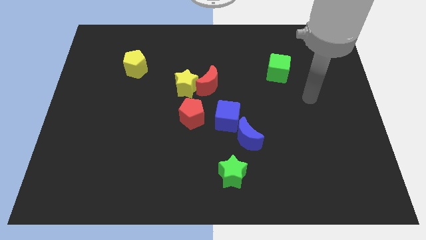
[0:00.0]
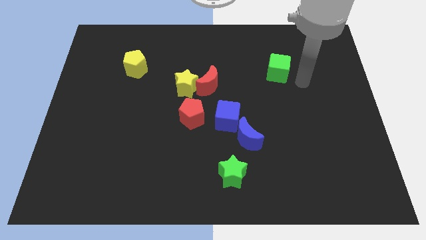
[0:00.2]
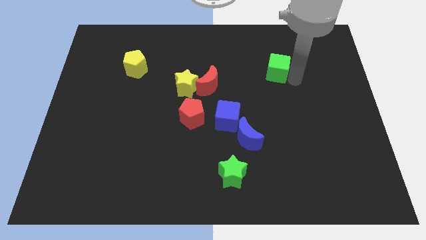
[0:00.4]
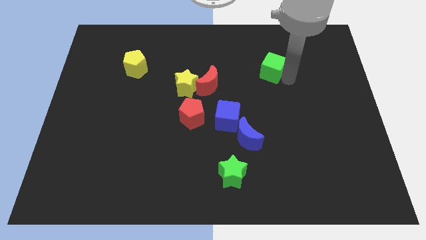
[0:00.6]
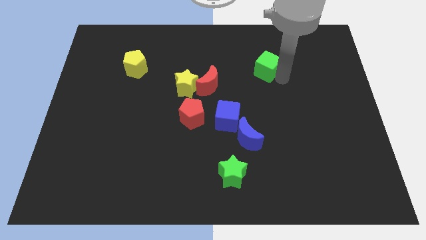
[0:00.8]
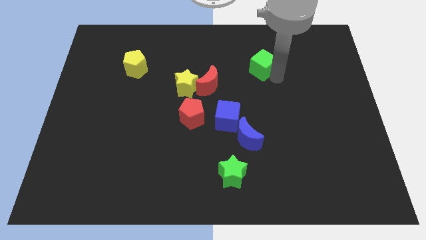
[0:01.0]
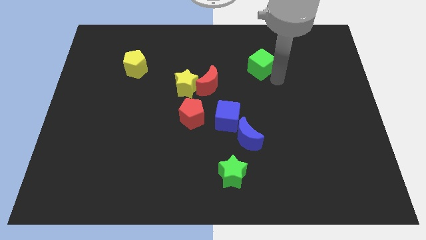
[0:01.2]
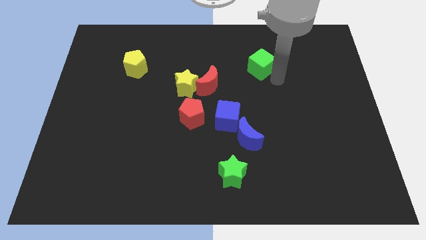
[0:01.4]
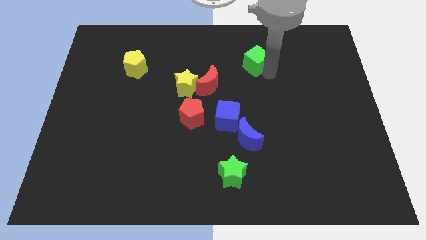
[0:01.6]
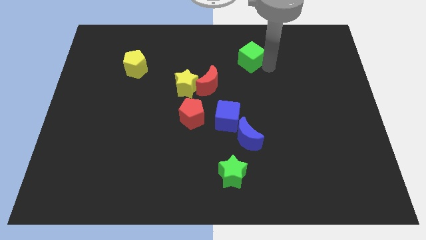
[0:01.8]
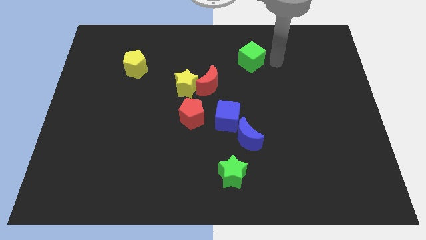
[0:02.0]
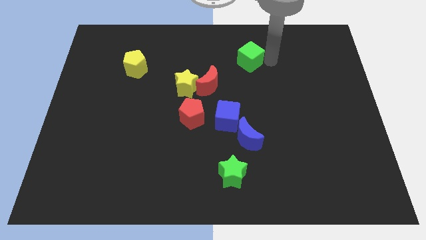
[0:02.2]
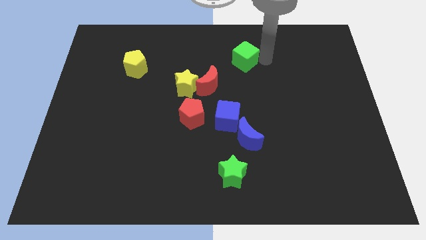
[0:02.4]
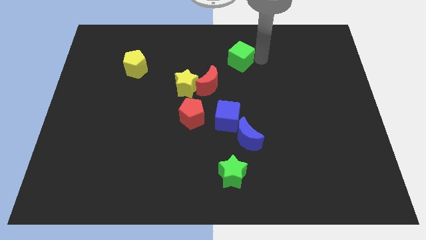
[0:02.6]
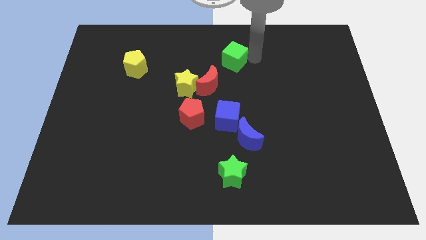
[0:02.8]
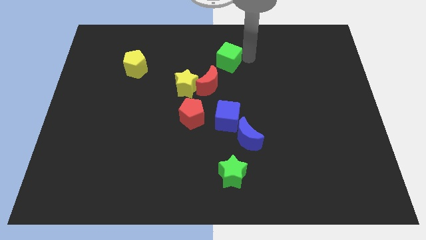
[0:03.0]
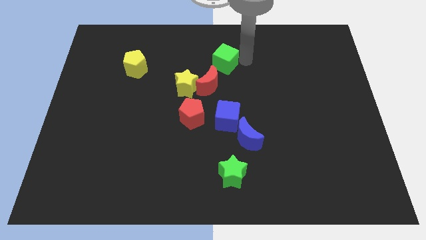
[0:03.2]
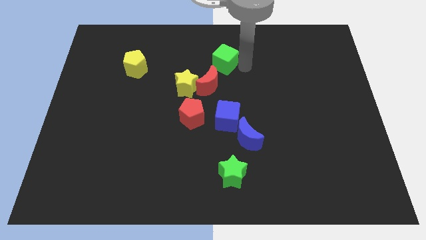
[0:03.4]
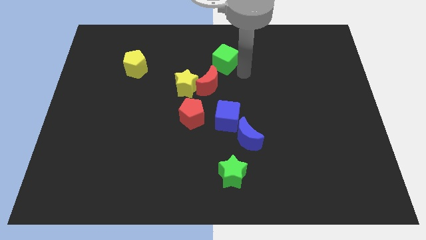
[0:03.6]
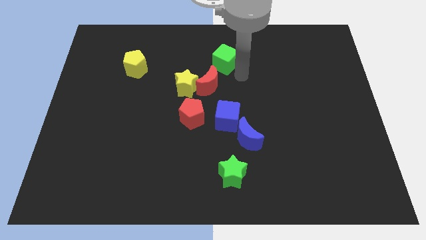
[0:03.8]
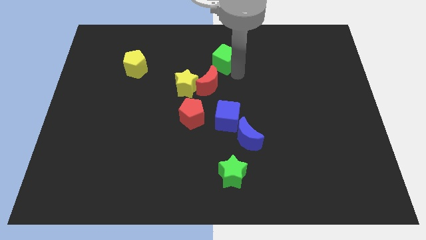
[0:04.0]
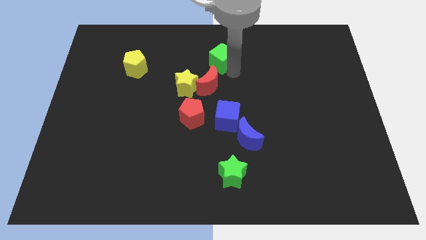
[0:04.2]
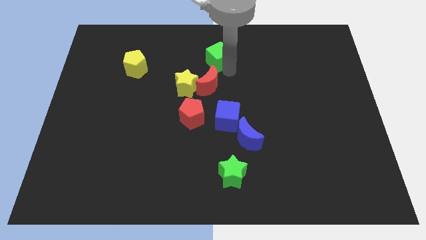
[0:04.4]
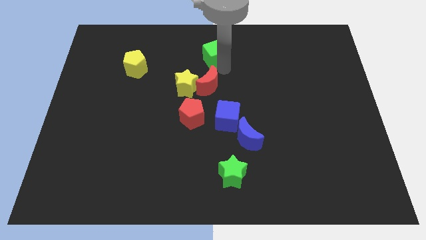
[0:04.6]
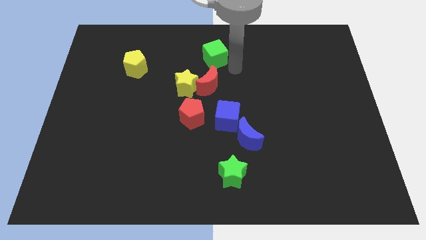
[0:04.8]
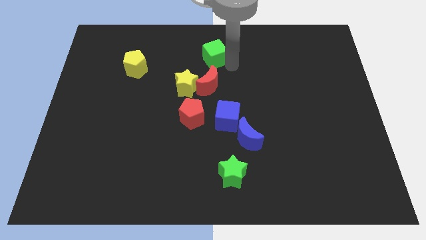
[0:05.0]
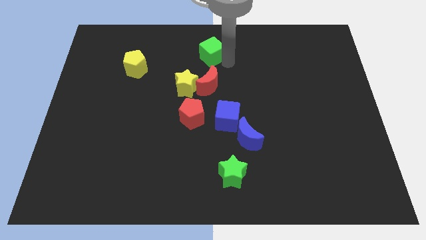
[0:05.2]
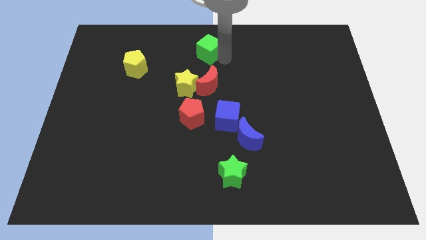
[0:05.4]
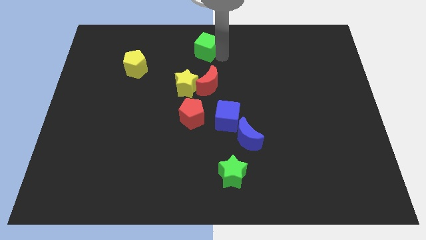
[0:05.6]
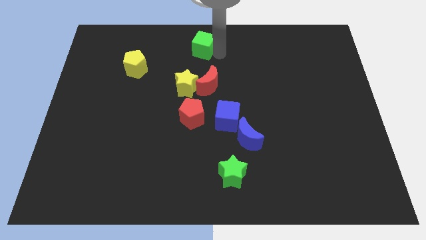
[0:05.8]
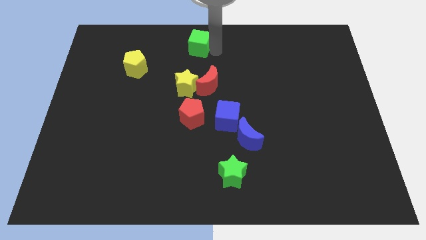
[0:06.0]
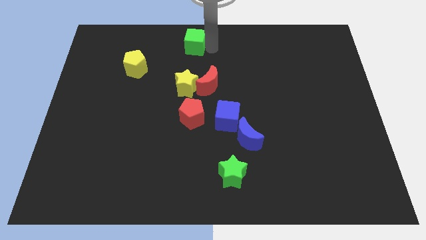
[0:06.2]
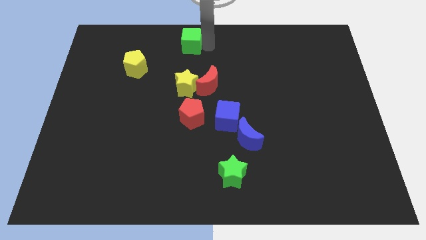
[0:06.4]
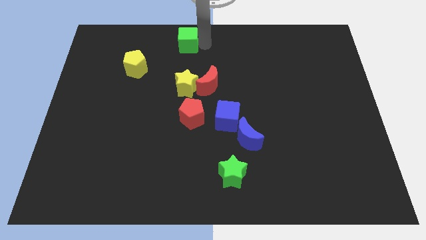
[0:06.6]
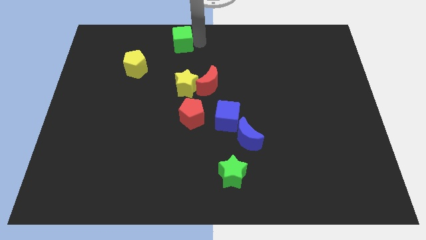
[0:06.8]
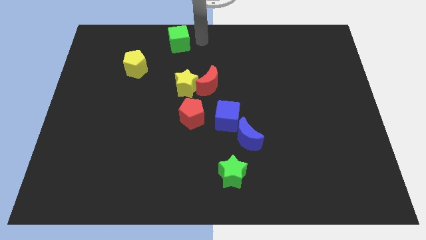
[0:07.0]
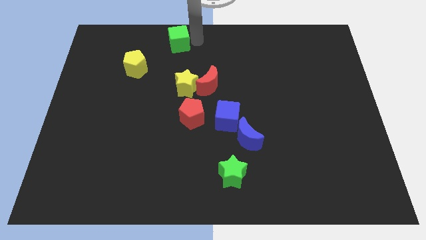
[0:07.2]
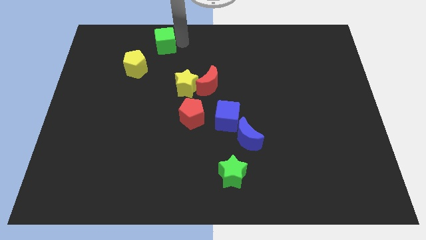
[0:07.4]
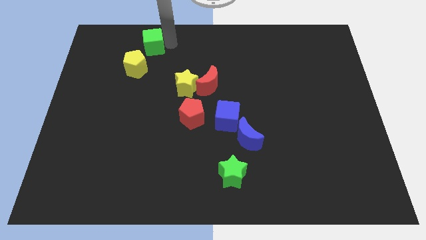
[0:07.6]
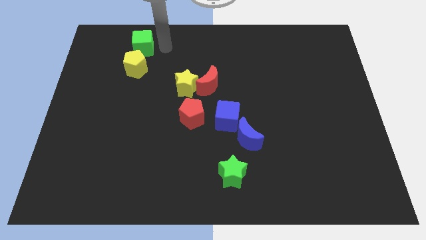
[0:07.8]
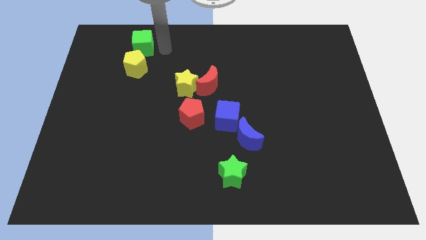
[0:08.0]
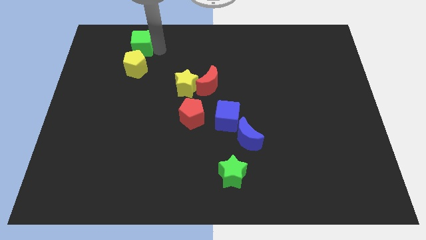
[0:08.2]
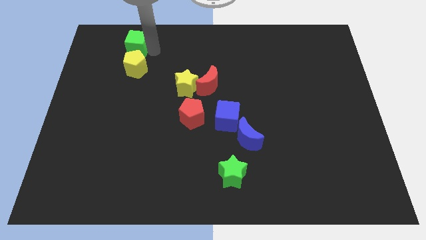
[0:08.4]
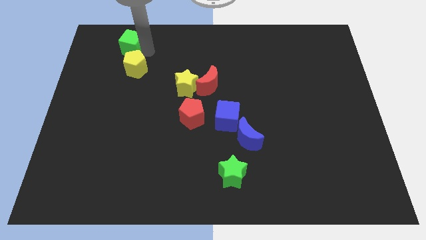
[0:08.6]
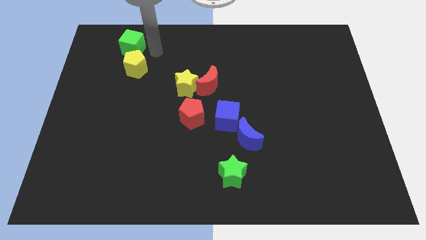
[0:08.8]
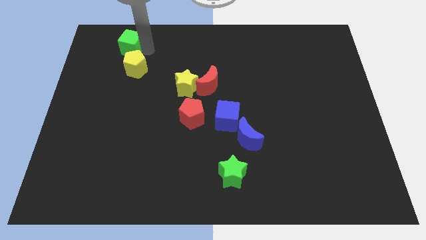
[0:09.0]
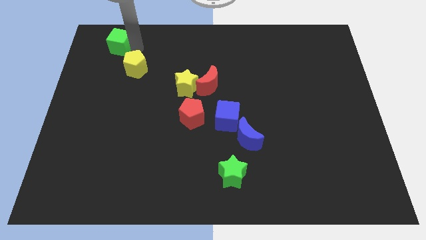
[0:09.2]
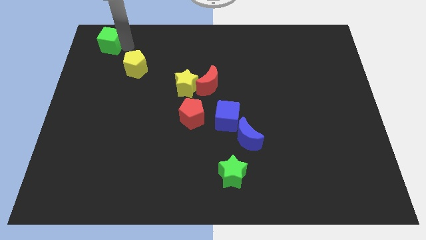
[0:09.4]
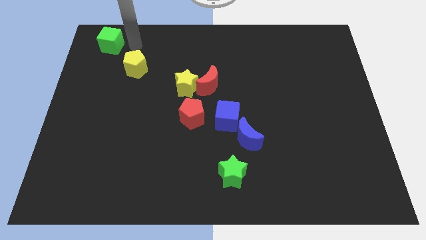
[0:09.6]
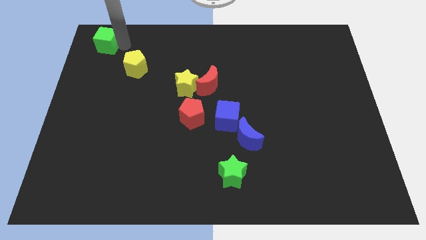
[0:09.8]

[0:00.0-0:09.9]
put the green cube to the top left corner
